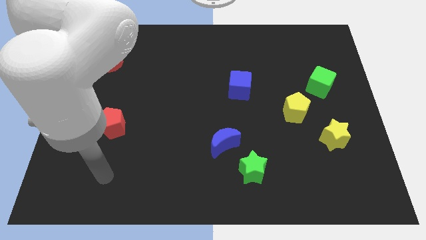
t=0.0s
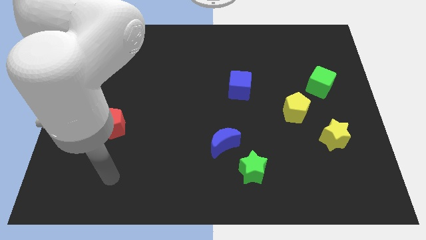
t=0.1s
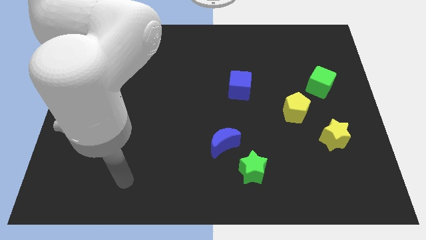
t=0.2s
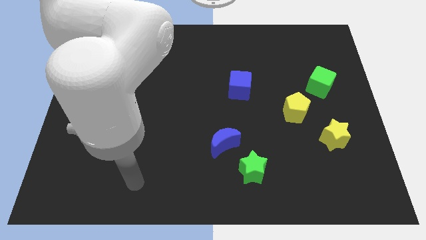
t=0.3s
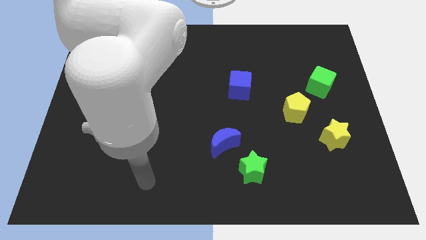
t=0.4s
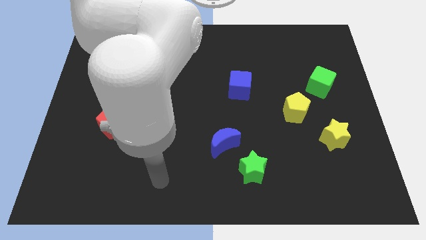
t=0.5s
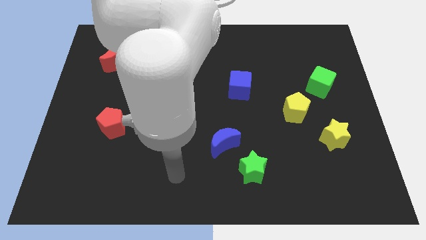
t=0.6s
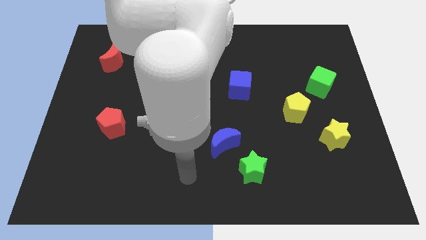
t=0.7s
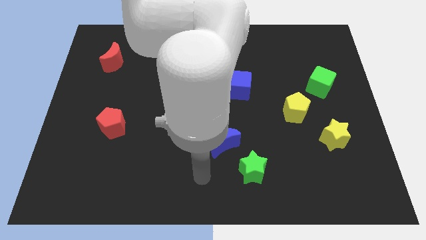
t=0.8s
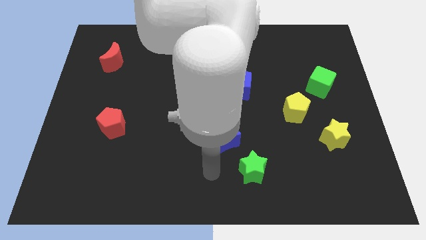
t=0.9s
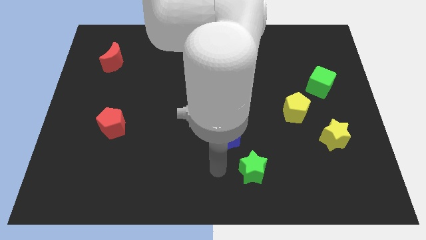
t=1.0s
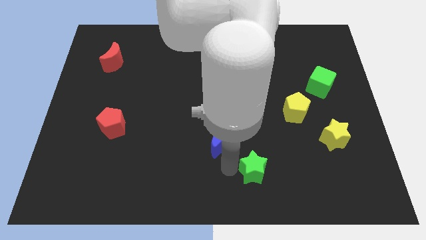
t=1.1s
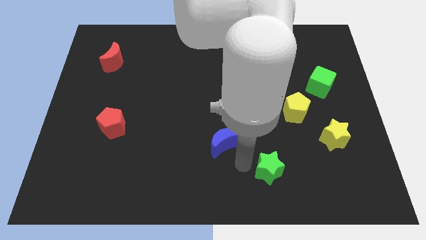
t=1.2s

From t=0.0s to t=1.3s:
separate the blue moon from the green star

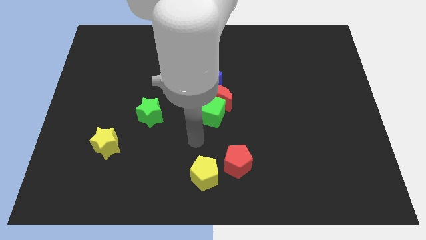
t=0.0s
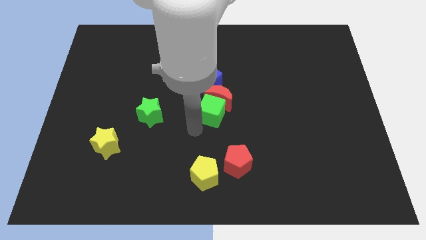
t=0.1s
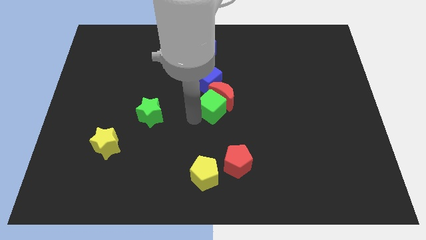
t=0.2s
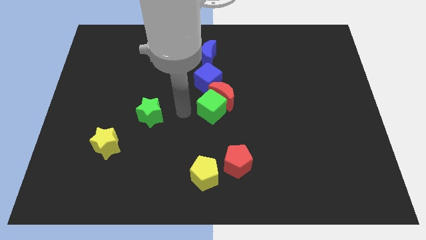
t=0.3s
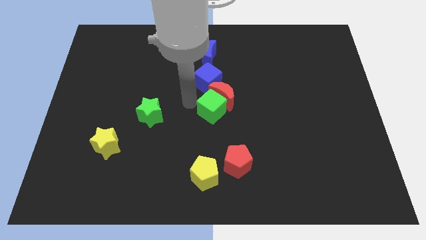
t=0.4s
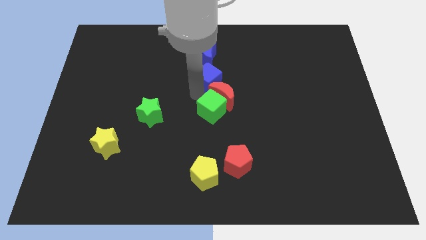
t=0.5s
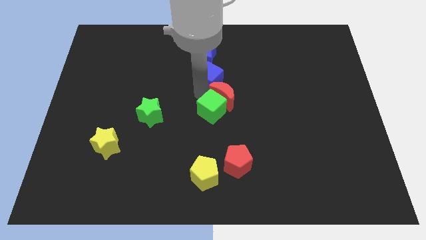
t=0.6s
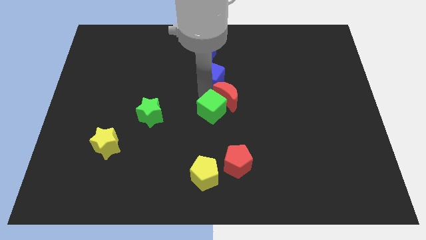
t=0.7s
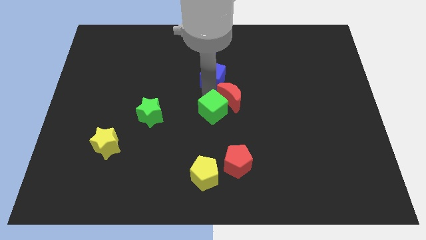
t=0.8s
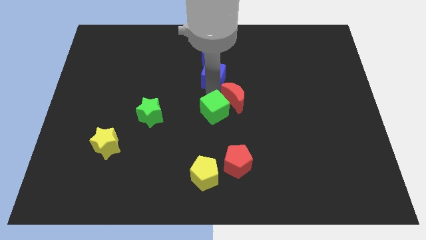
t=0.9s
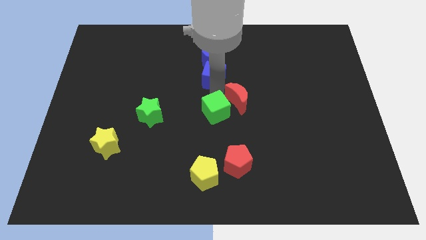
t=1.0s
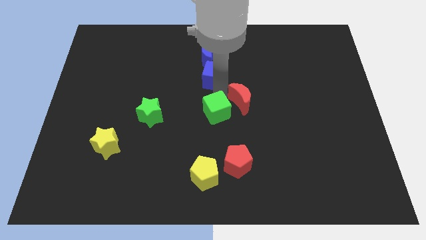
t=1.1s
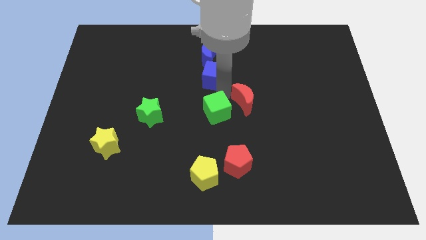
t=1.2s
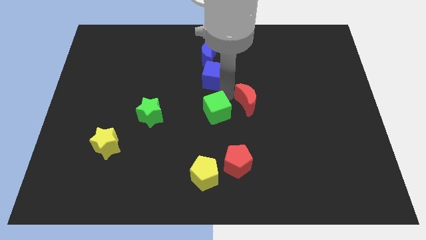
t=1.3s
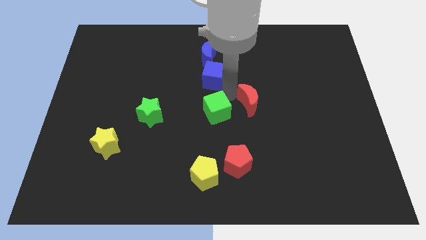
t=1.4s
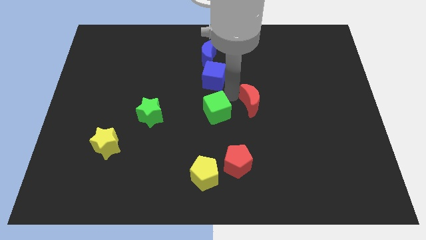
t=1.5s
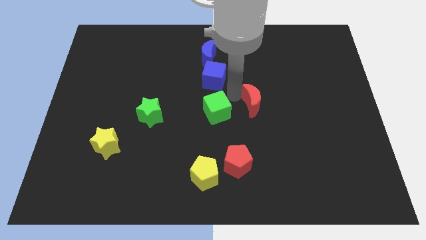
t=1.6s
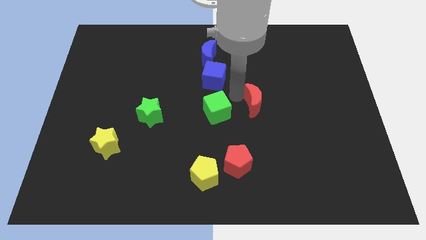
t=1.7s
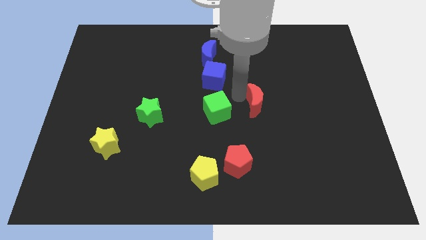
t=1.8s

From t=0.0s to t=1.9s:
pull the red moon apart from the green cube and blue cube

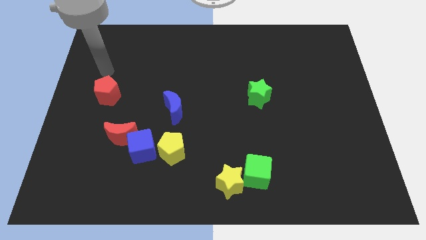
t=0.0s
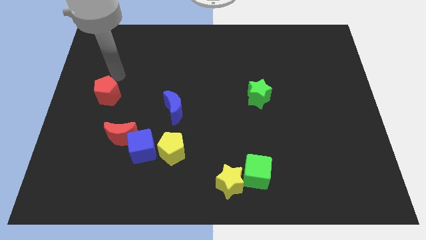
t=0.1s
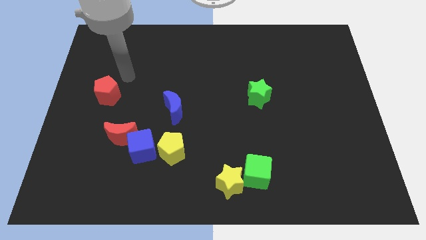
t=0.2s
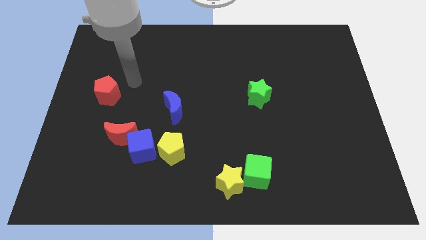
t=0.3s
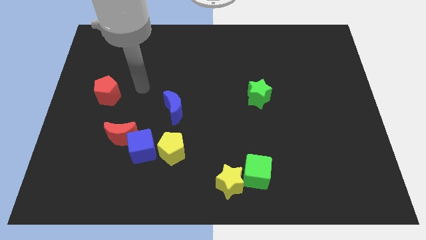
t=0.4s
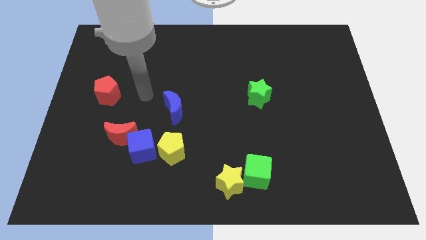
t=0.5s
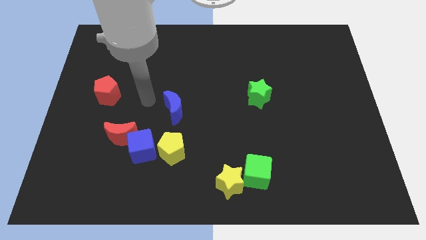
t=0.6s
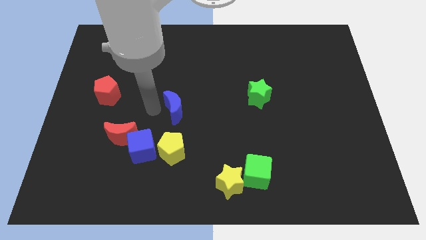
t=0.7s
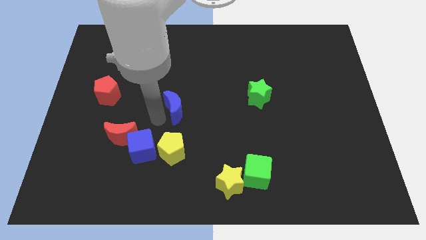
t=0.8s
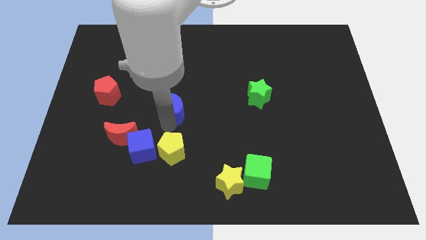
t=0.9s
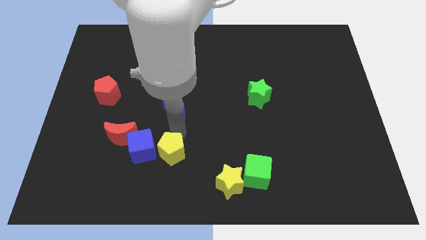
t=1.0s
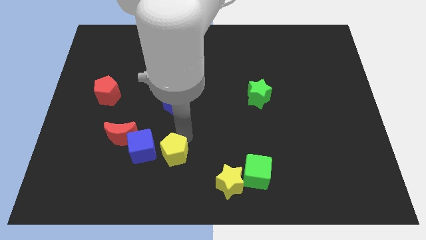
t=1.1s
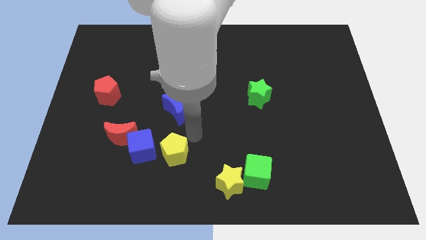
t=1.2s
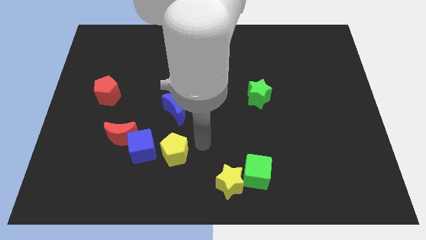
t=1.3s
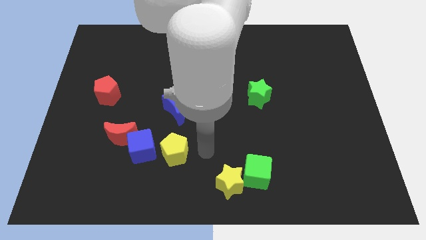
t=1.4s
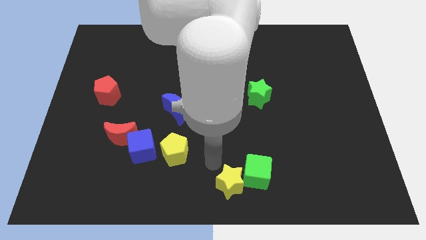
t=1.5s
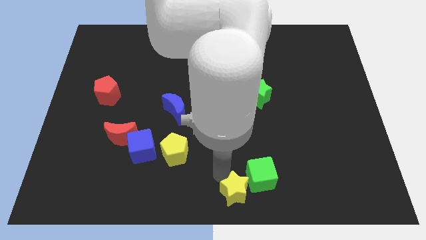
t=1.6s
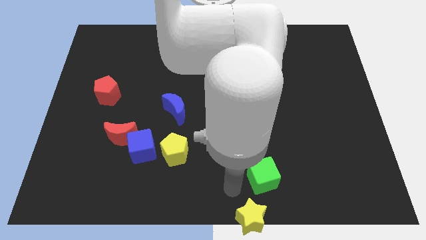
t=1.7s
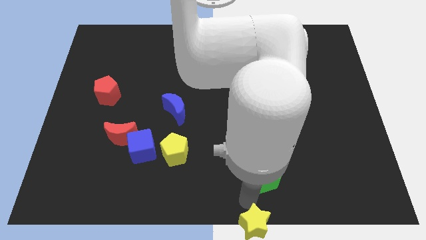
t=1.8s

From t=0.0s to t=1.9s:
pull the green cube apart from the yellow star

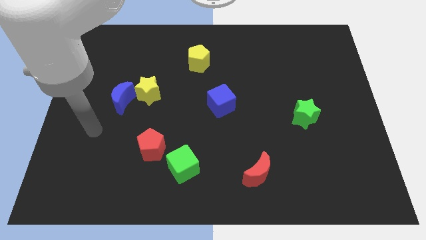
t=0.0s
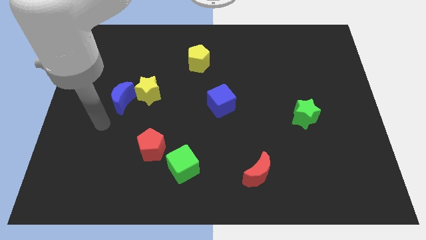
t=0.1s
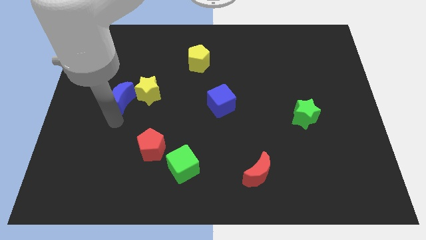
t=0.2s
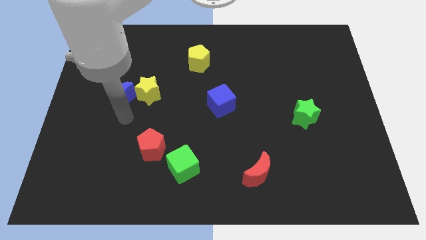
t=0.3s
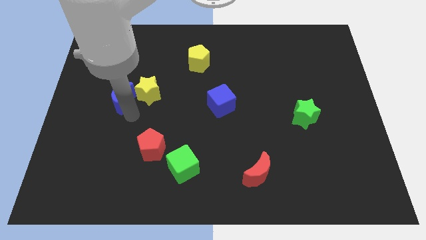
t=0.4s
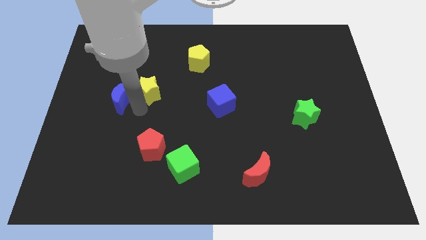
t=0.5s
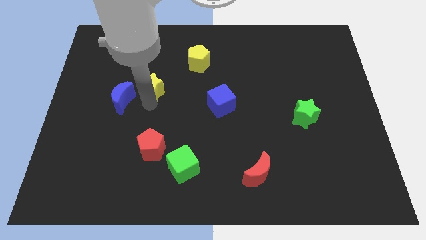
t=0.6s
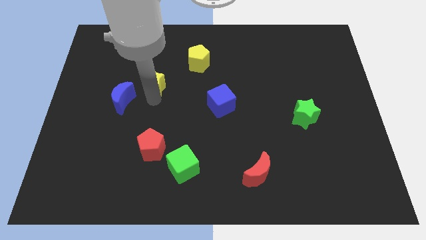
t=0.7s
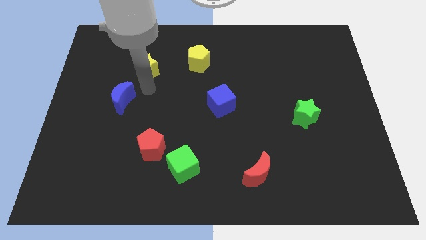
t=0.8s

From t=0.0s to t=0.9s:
move the blue moon away from the yellow star

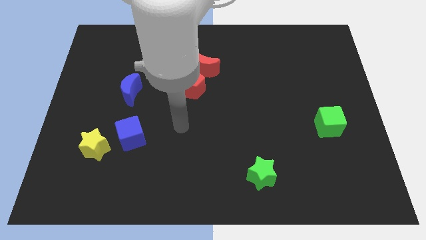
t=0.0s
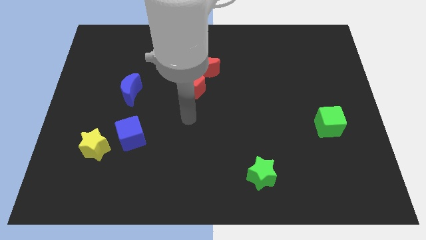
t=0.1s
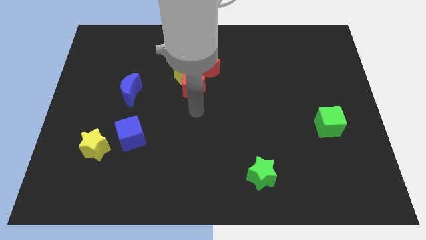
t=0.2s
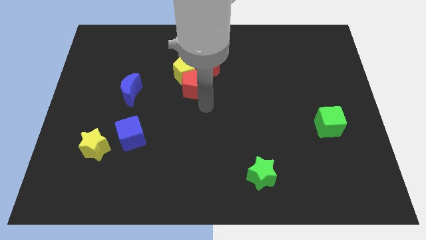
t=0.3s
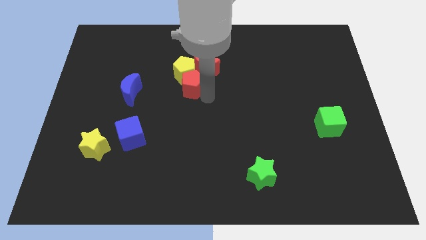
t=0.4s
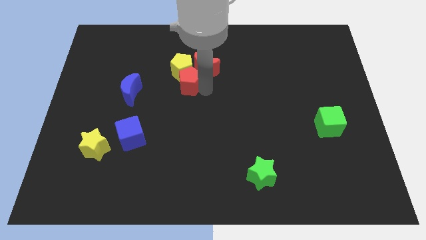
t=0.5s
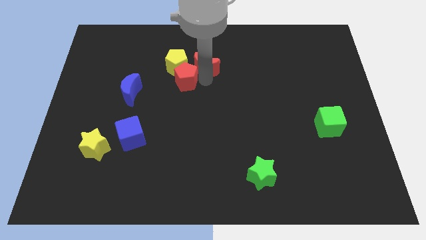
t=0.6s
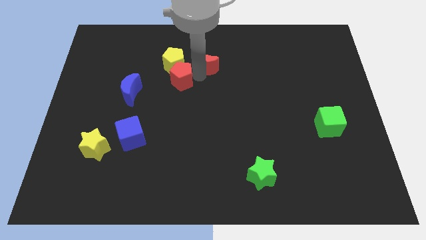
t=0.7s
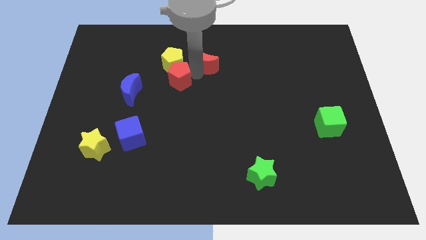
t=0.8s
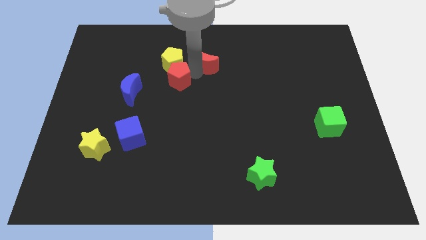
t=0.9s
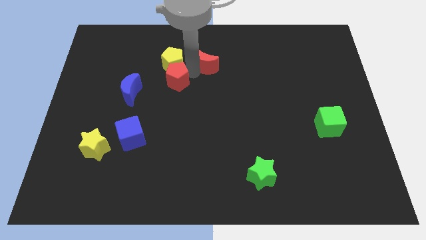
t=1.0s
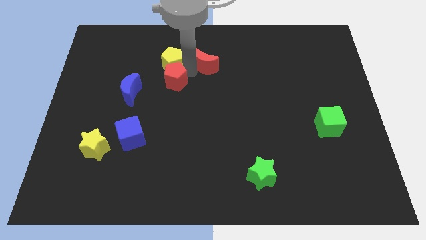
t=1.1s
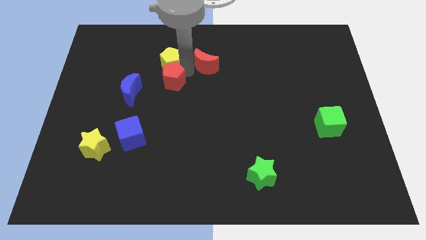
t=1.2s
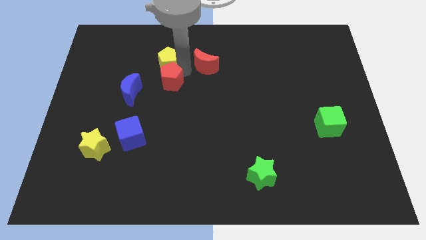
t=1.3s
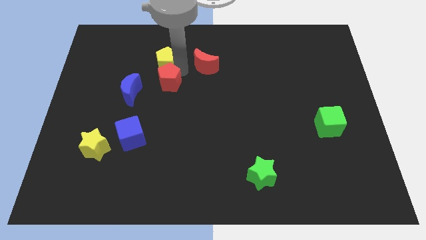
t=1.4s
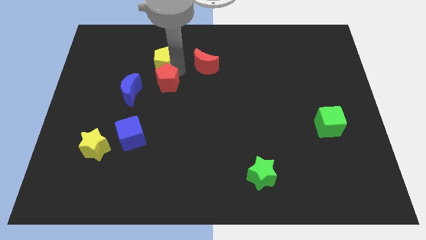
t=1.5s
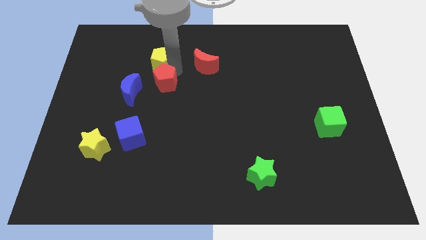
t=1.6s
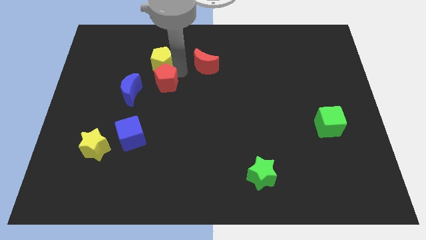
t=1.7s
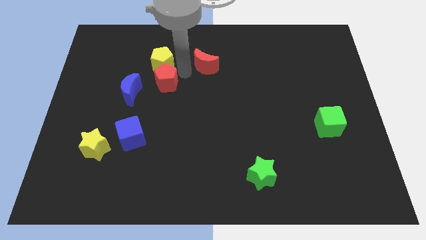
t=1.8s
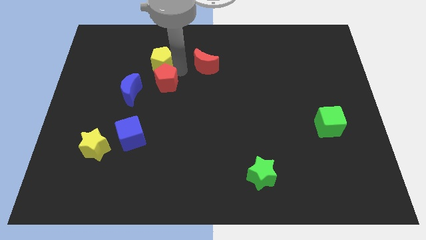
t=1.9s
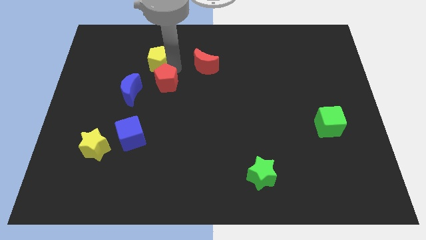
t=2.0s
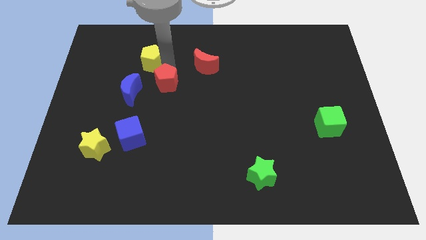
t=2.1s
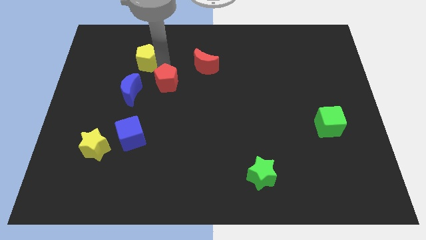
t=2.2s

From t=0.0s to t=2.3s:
move the yellow pentagon away from the red pentagon and red moon

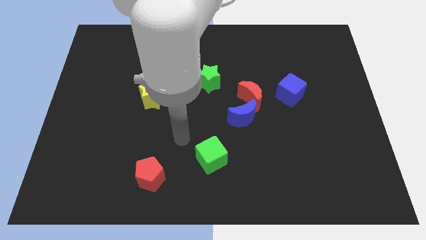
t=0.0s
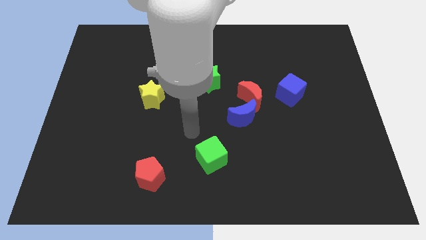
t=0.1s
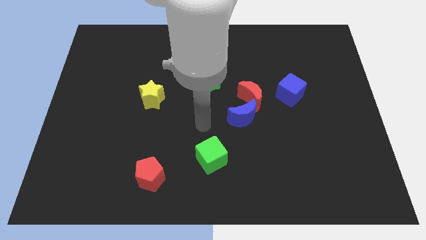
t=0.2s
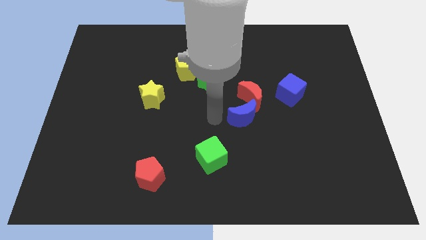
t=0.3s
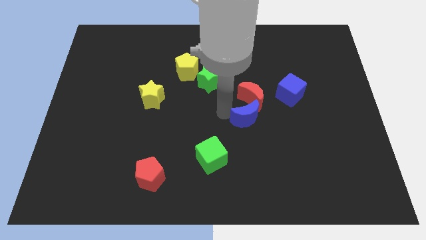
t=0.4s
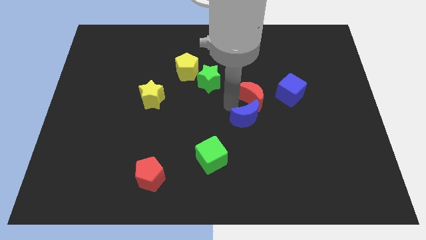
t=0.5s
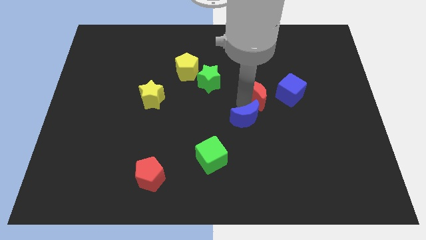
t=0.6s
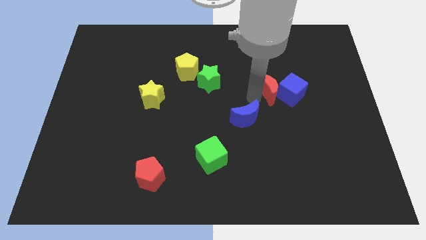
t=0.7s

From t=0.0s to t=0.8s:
move the blue moon away from the red moon

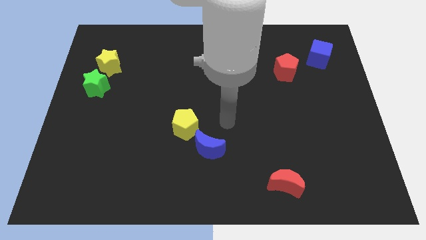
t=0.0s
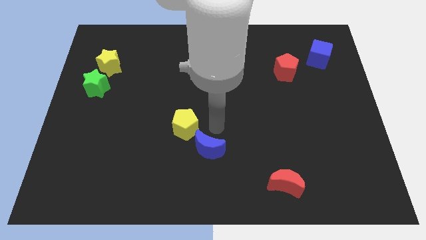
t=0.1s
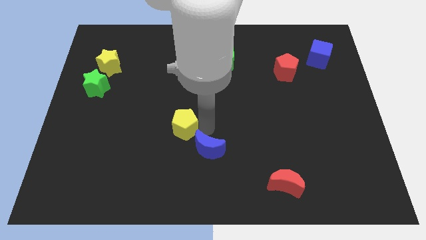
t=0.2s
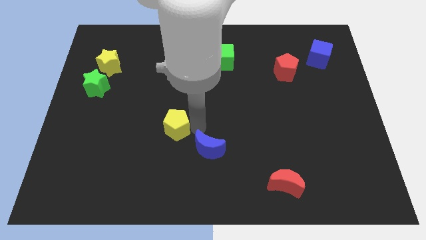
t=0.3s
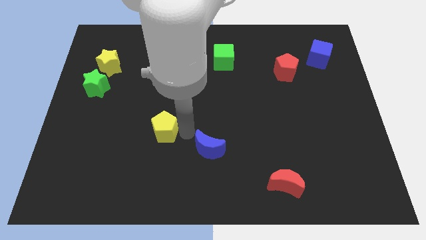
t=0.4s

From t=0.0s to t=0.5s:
pull the blue moon apart from the yellow pentagon
